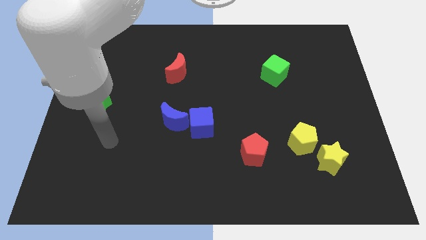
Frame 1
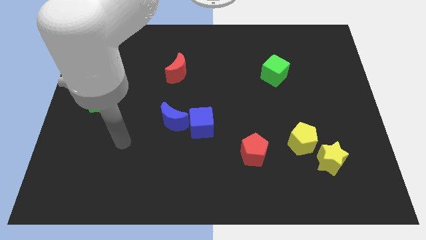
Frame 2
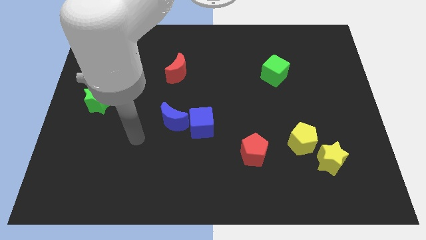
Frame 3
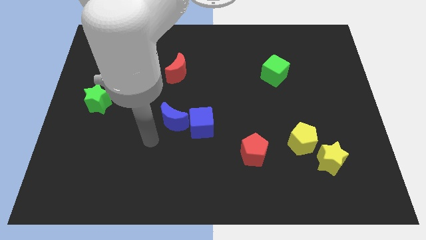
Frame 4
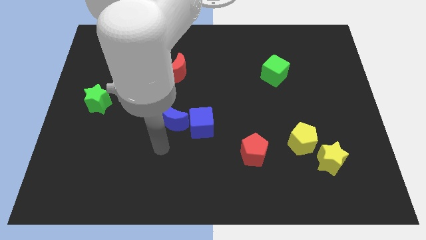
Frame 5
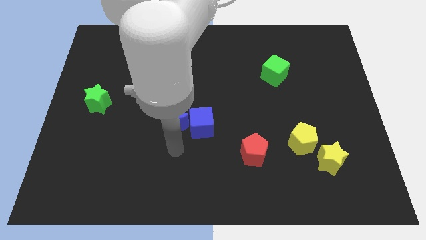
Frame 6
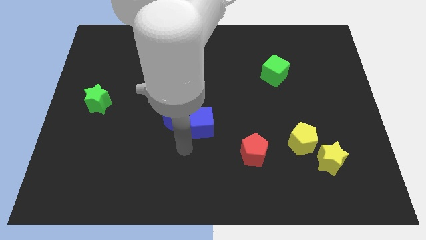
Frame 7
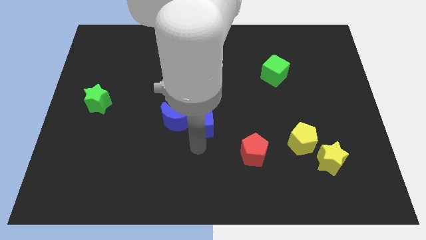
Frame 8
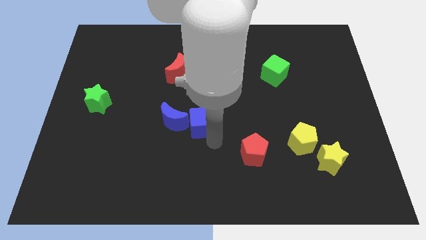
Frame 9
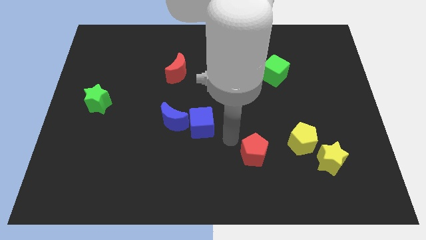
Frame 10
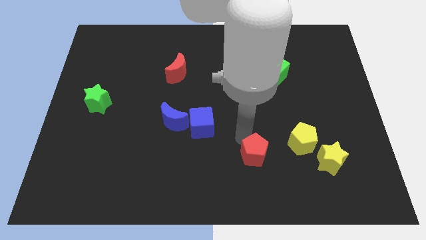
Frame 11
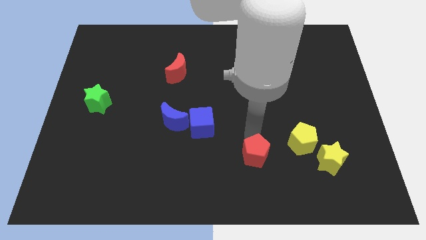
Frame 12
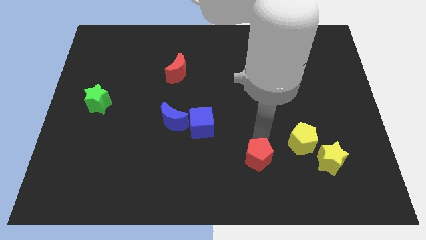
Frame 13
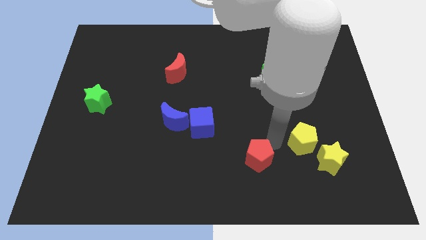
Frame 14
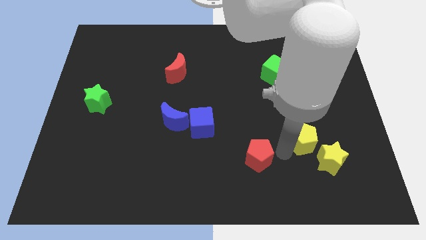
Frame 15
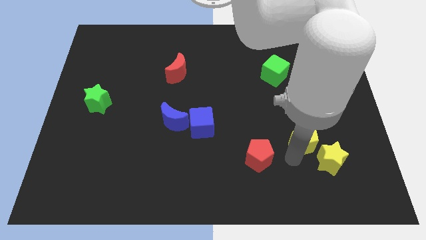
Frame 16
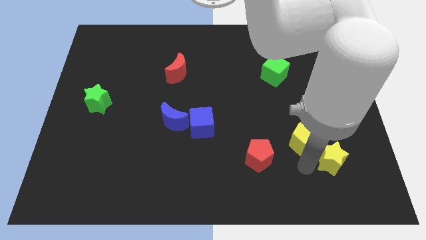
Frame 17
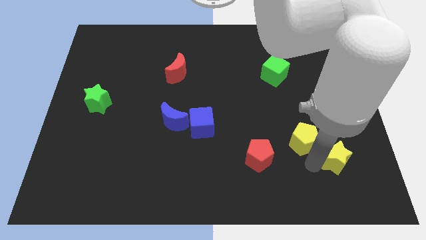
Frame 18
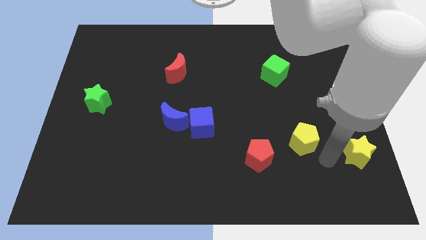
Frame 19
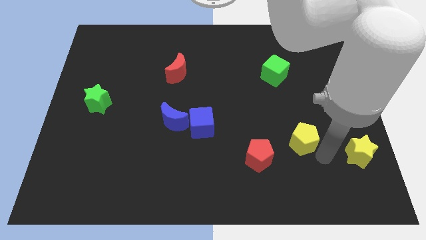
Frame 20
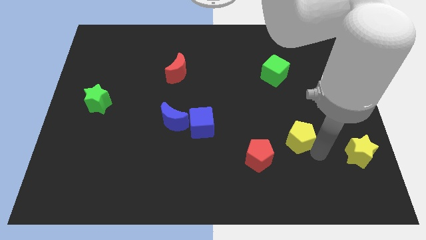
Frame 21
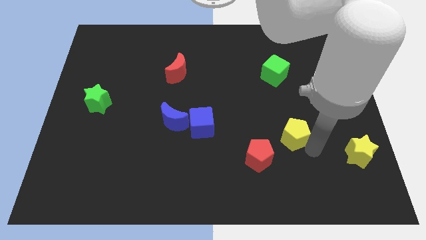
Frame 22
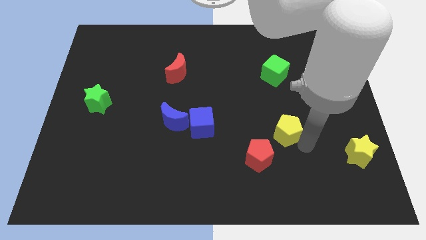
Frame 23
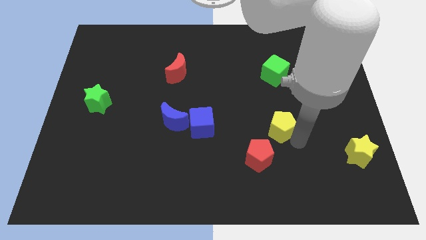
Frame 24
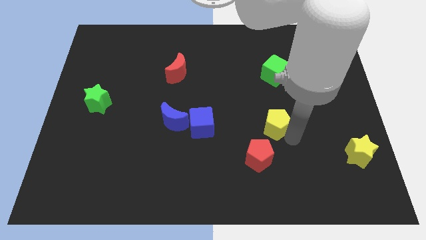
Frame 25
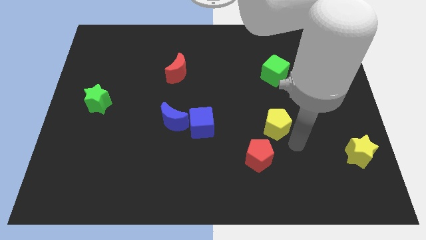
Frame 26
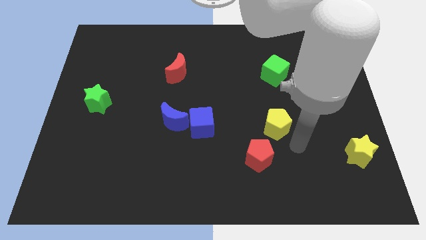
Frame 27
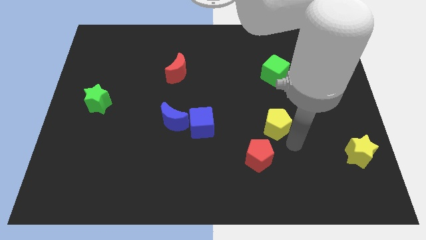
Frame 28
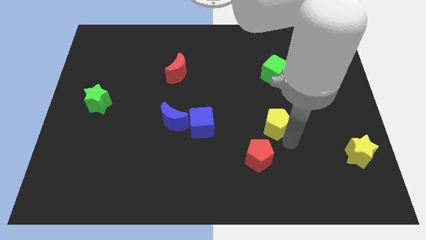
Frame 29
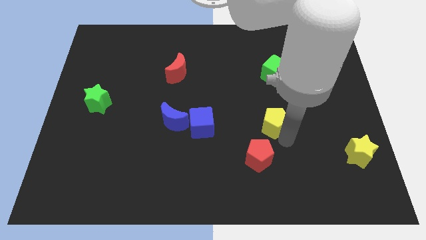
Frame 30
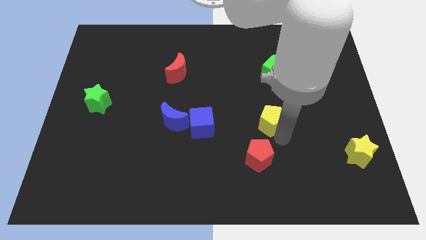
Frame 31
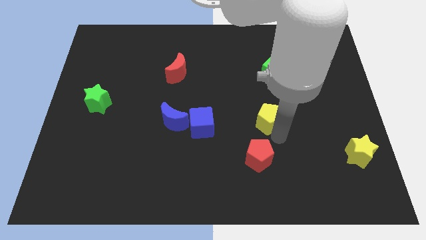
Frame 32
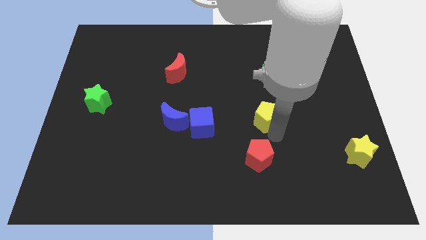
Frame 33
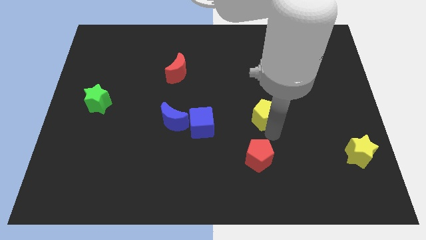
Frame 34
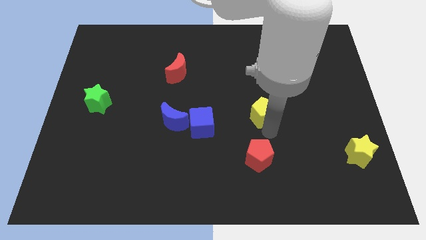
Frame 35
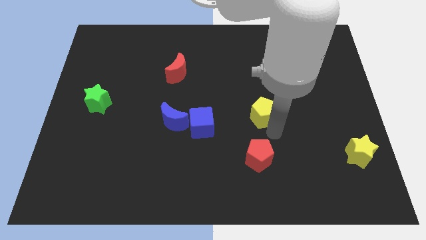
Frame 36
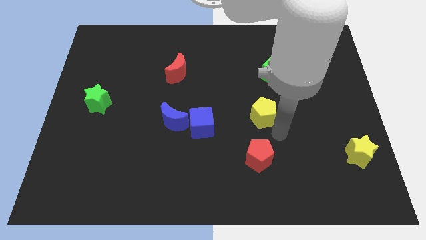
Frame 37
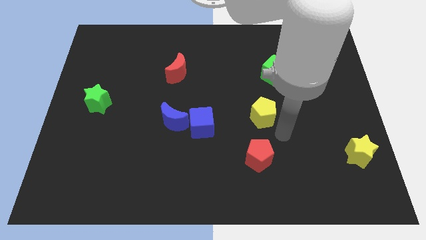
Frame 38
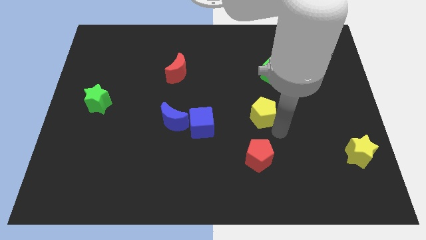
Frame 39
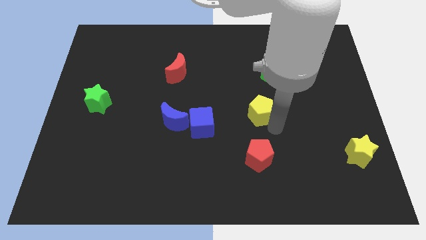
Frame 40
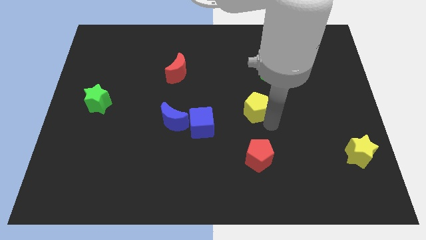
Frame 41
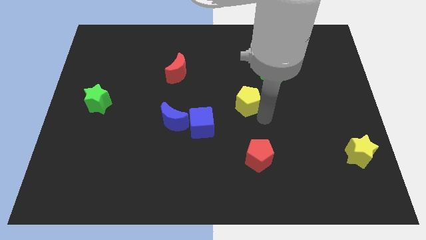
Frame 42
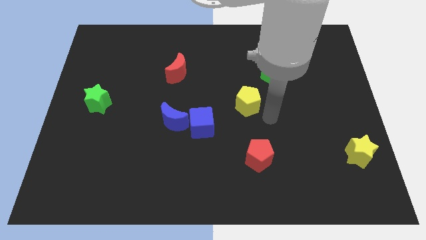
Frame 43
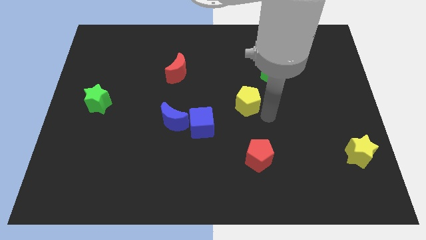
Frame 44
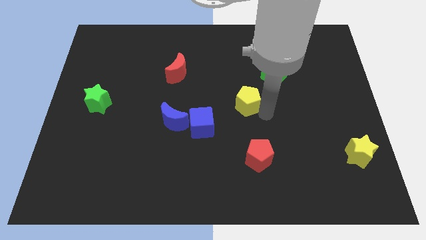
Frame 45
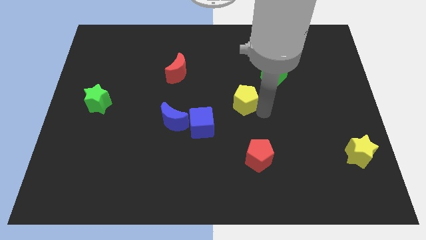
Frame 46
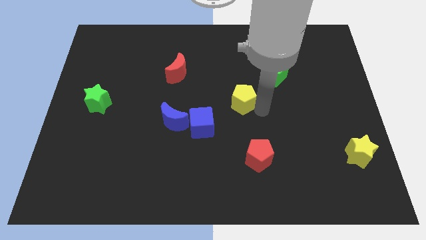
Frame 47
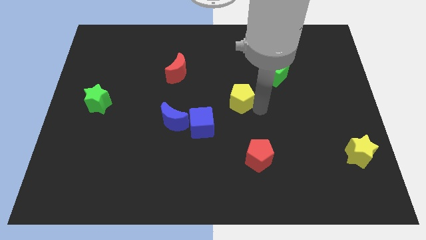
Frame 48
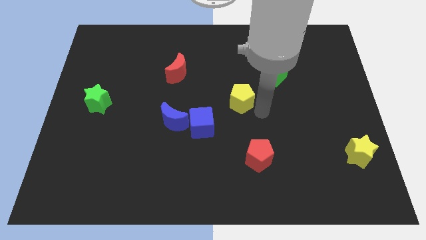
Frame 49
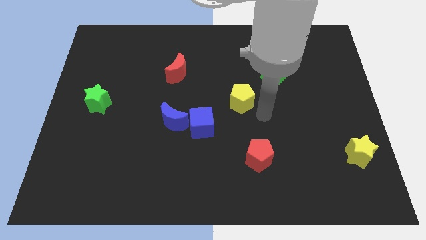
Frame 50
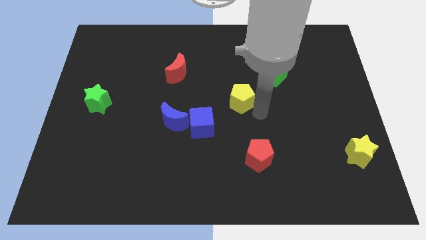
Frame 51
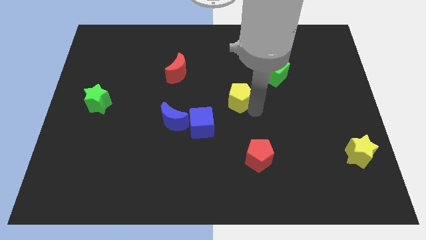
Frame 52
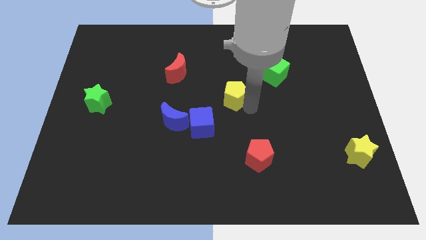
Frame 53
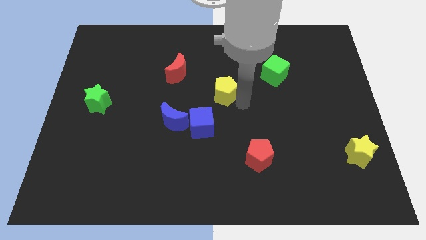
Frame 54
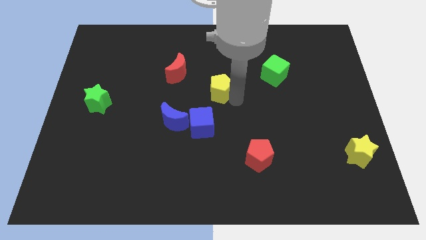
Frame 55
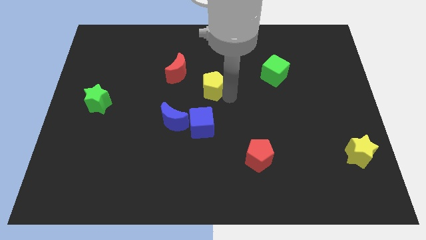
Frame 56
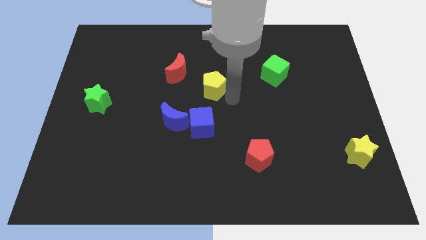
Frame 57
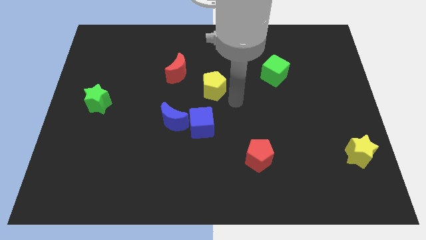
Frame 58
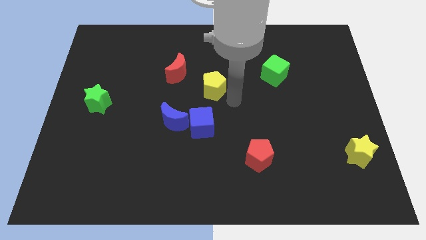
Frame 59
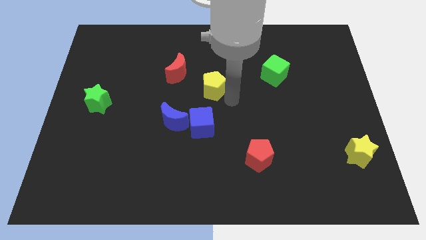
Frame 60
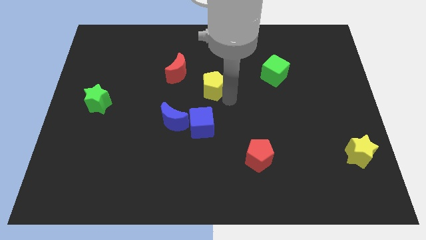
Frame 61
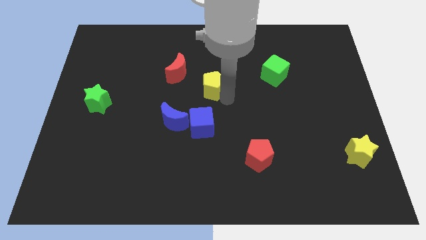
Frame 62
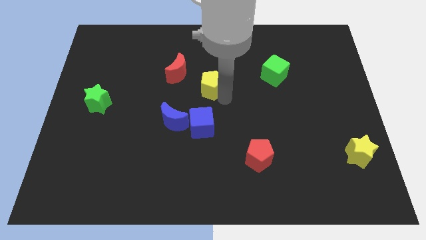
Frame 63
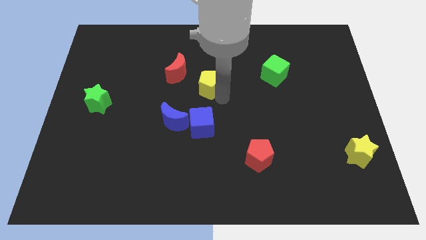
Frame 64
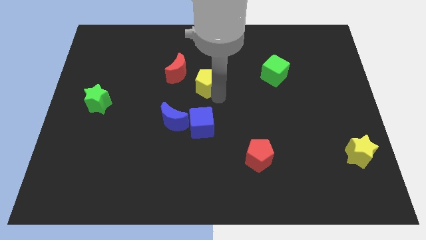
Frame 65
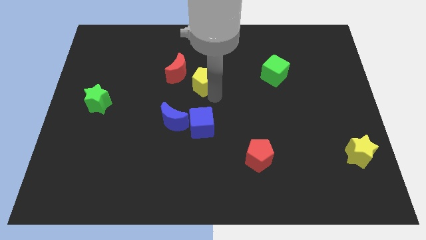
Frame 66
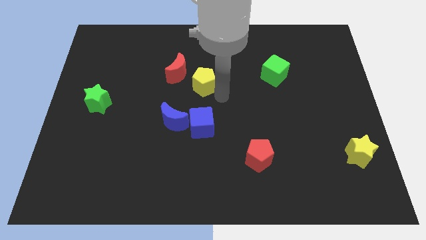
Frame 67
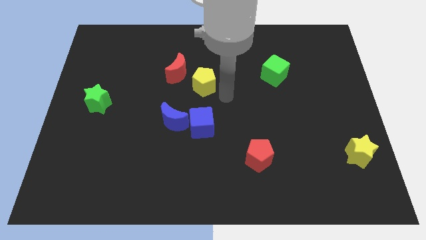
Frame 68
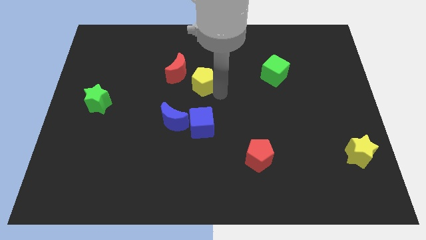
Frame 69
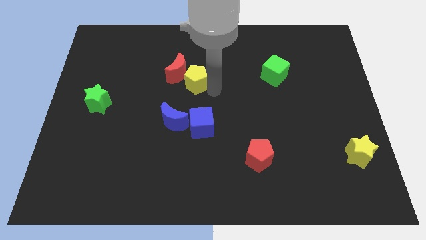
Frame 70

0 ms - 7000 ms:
put the yellow pentagon towards the red moon
